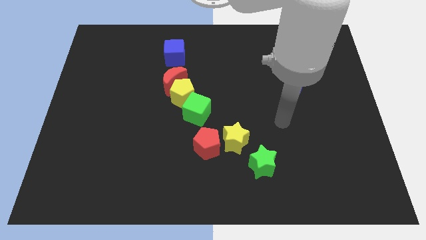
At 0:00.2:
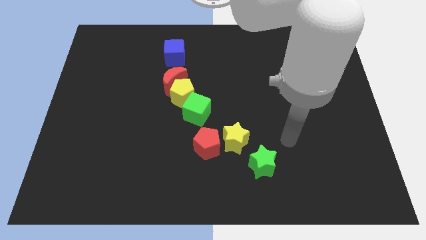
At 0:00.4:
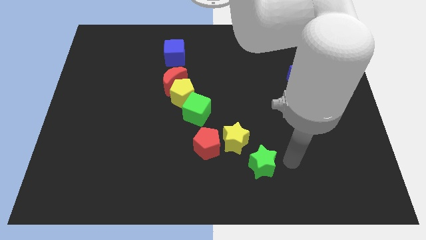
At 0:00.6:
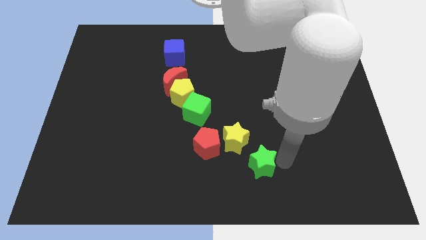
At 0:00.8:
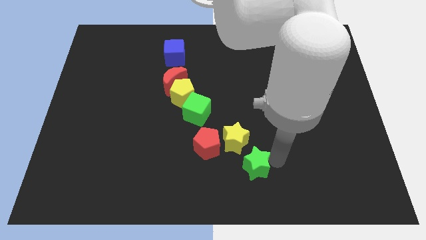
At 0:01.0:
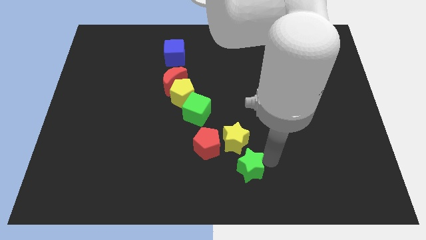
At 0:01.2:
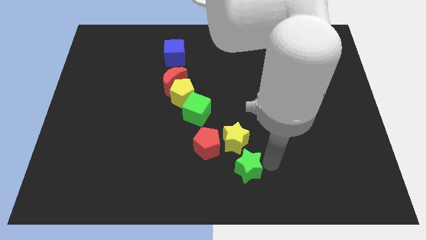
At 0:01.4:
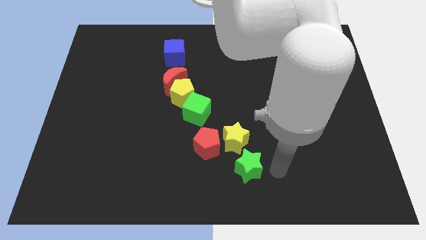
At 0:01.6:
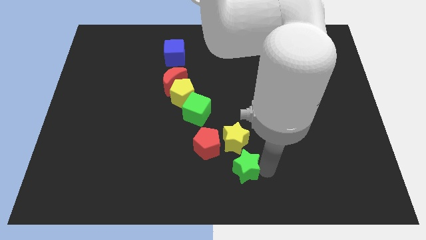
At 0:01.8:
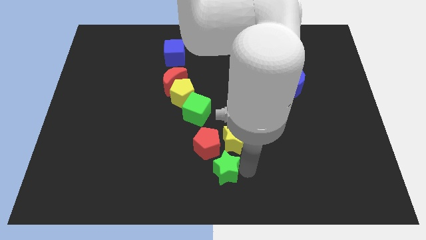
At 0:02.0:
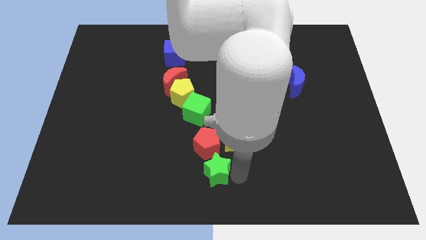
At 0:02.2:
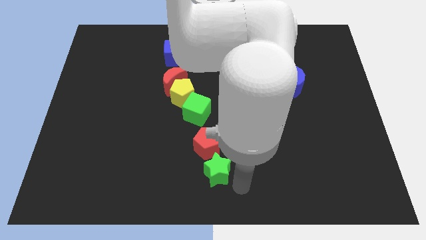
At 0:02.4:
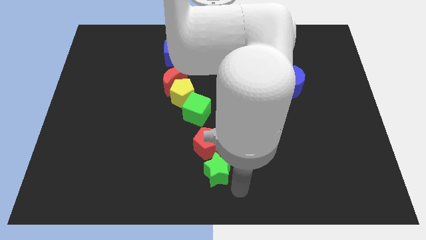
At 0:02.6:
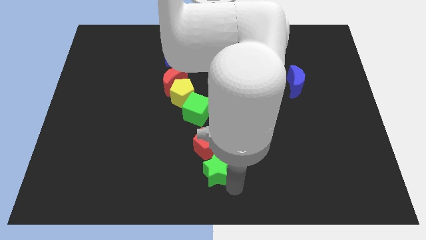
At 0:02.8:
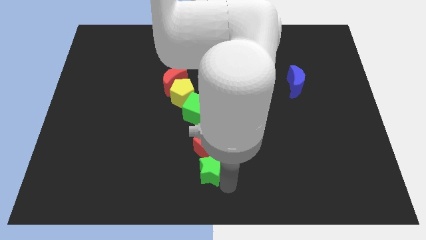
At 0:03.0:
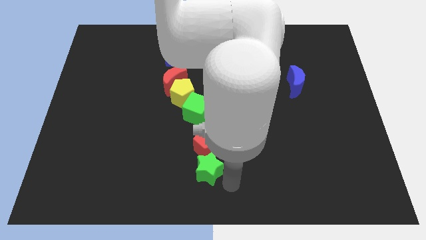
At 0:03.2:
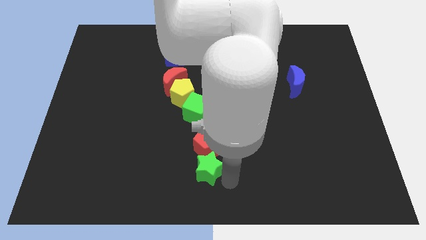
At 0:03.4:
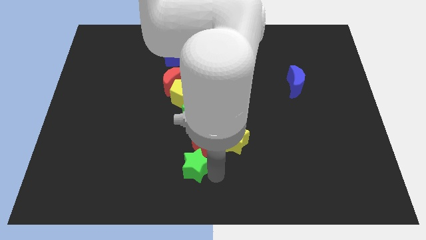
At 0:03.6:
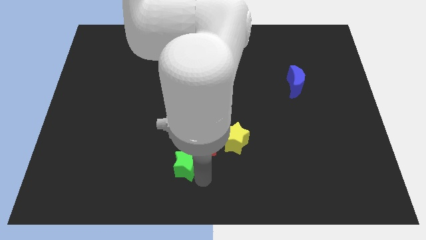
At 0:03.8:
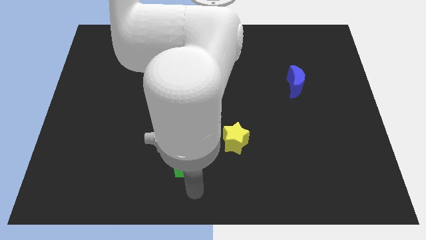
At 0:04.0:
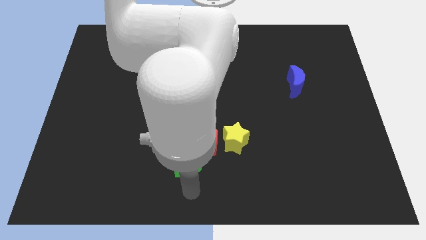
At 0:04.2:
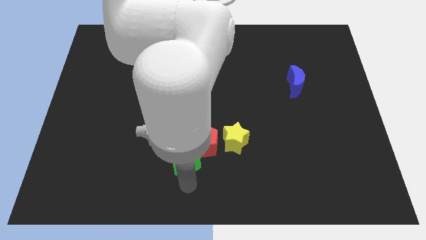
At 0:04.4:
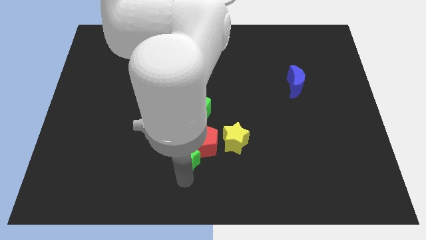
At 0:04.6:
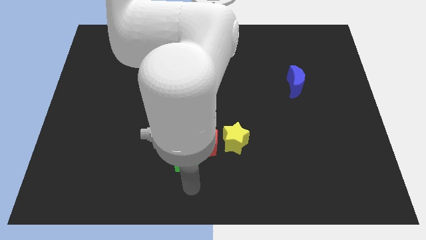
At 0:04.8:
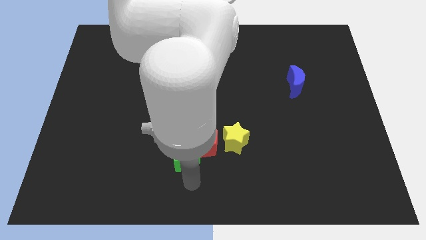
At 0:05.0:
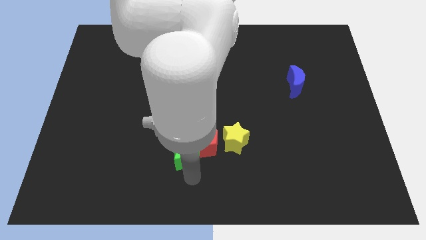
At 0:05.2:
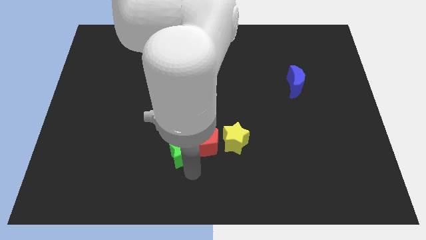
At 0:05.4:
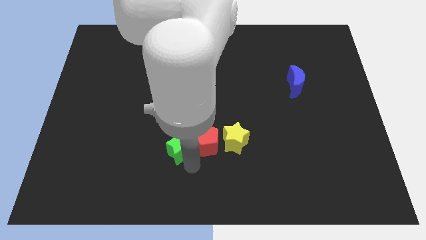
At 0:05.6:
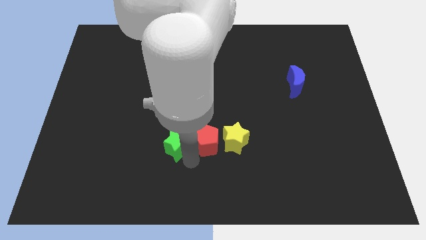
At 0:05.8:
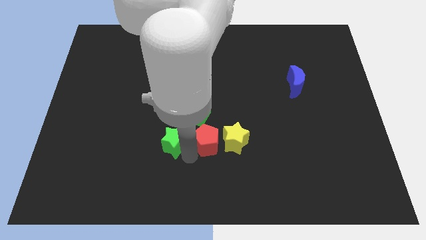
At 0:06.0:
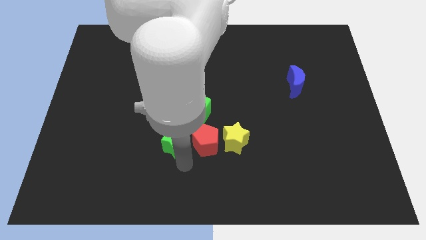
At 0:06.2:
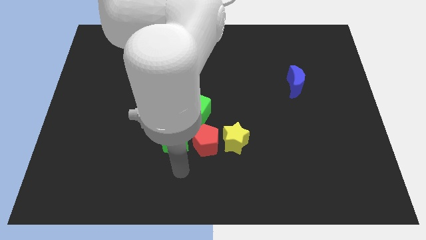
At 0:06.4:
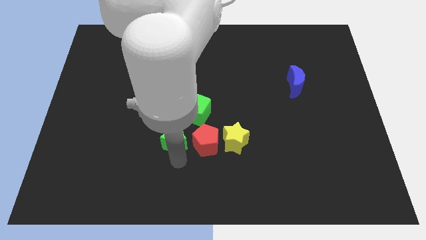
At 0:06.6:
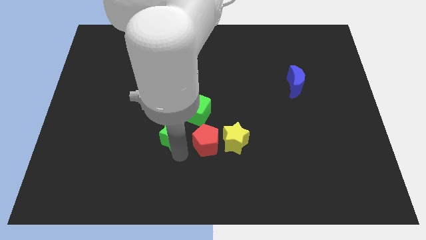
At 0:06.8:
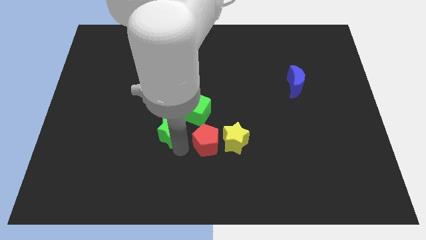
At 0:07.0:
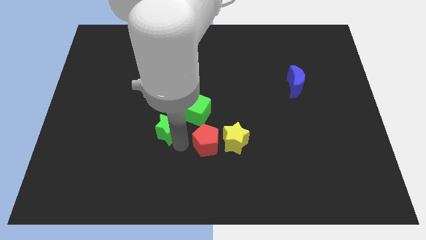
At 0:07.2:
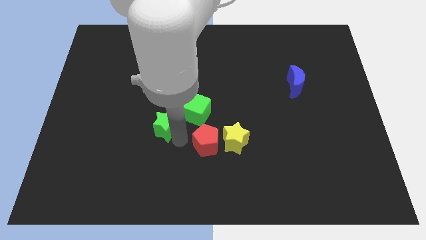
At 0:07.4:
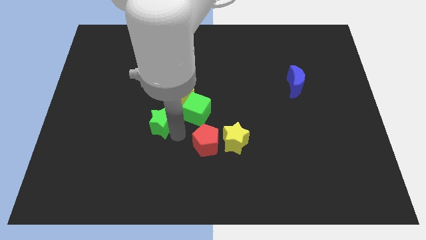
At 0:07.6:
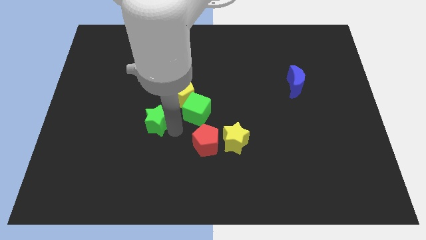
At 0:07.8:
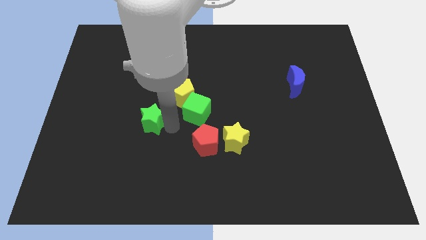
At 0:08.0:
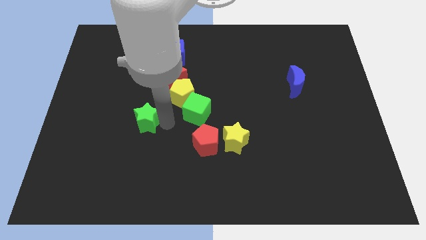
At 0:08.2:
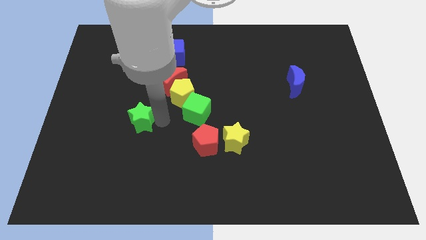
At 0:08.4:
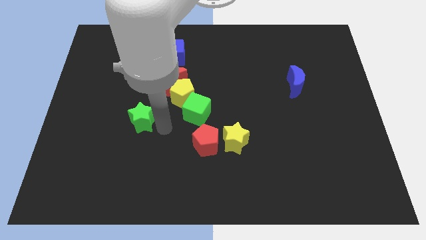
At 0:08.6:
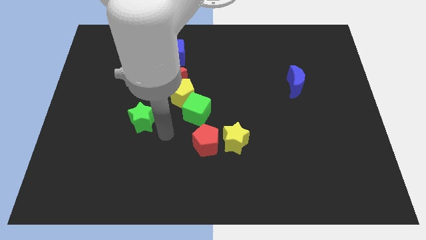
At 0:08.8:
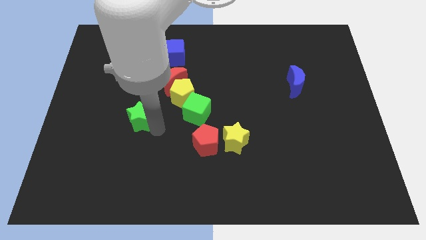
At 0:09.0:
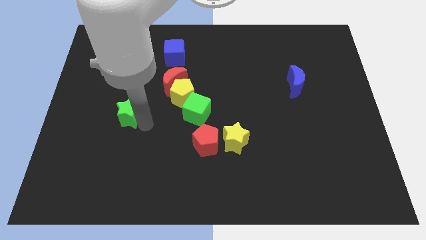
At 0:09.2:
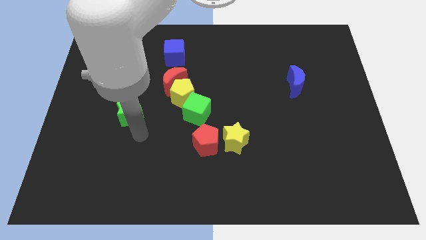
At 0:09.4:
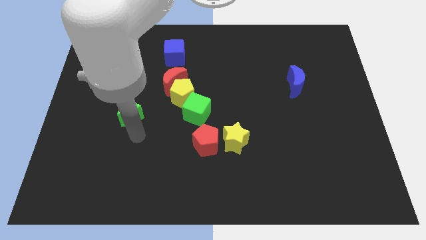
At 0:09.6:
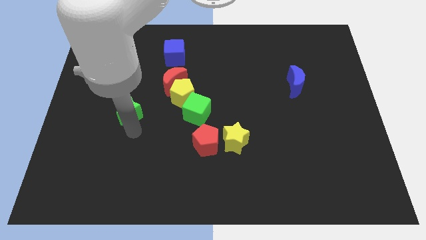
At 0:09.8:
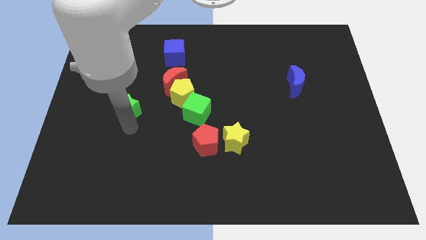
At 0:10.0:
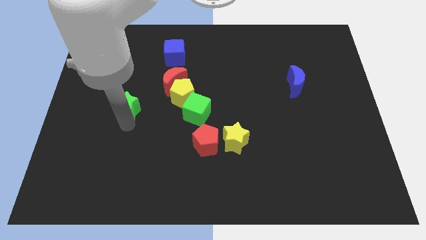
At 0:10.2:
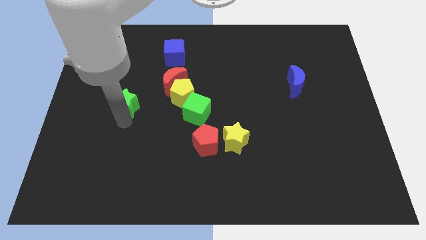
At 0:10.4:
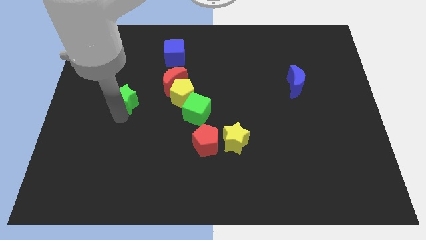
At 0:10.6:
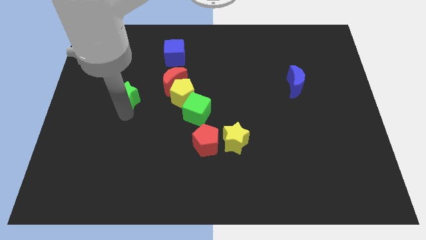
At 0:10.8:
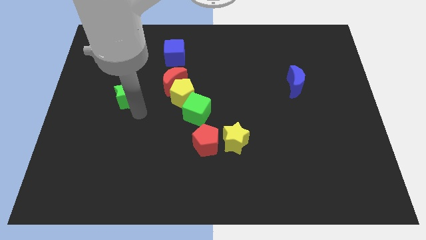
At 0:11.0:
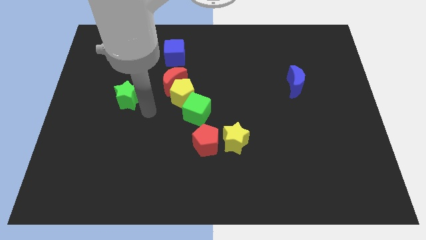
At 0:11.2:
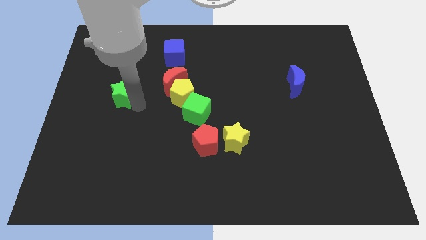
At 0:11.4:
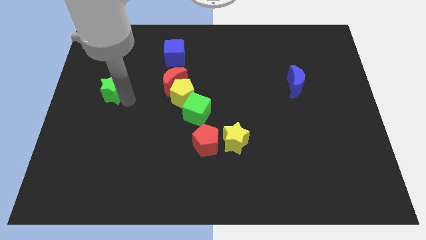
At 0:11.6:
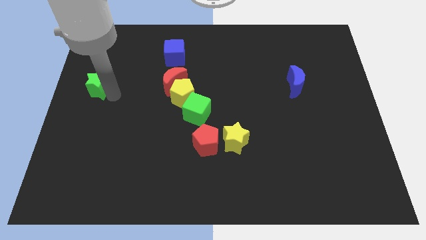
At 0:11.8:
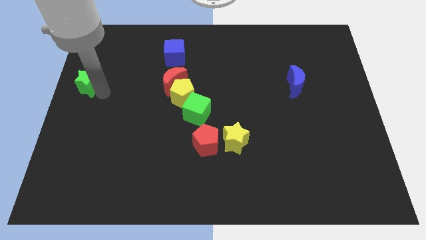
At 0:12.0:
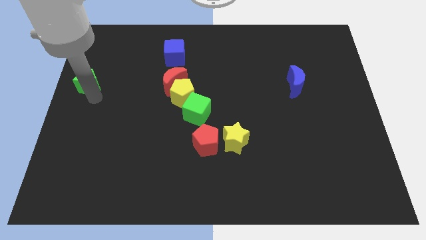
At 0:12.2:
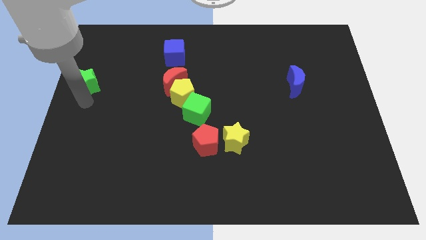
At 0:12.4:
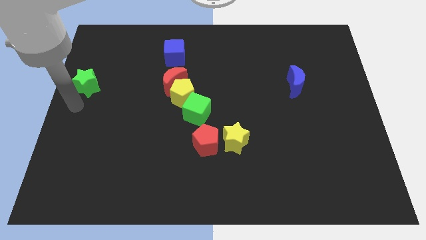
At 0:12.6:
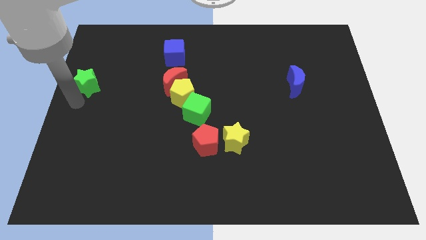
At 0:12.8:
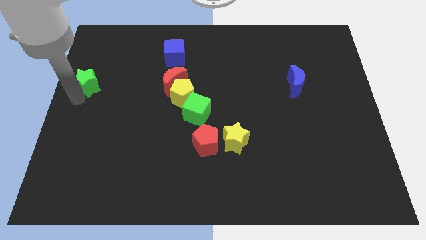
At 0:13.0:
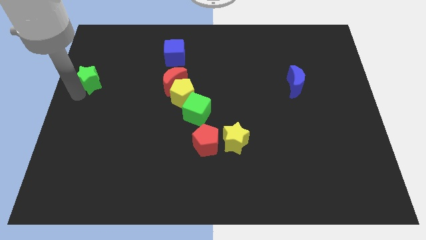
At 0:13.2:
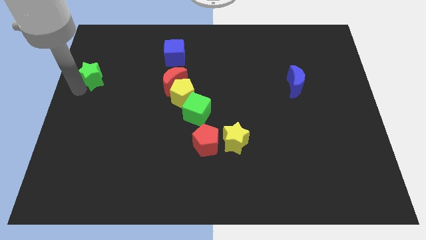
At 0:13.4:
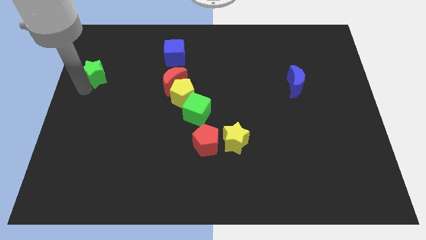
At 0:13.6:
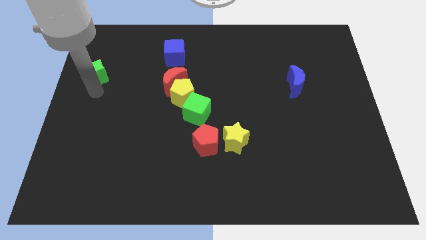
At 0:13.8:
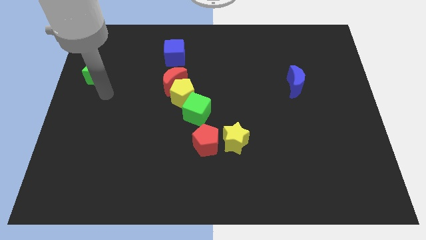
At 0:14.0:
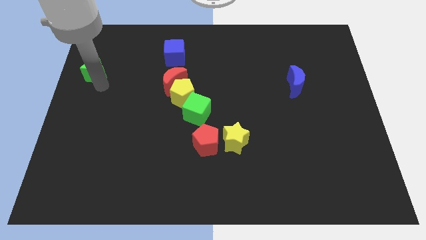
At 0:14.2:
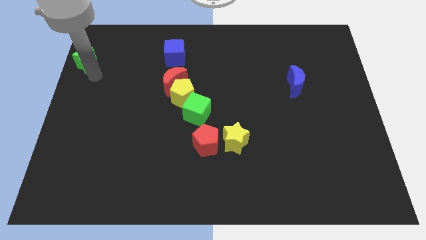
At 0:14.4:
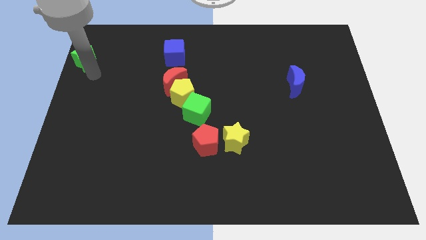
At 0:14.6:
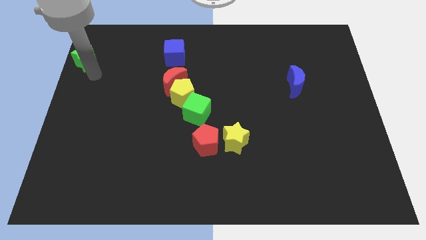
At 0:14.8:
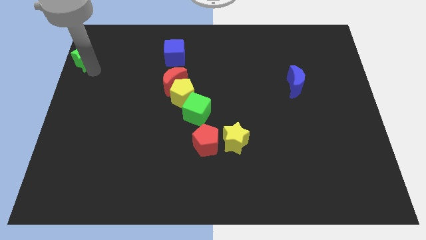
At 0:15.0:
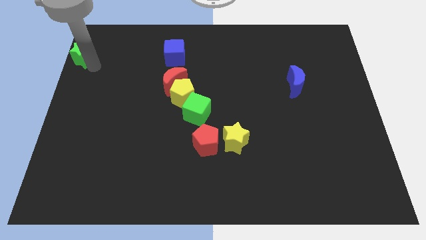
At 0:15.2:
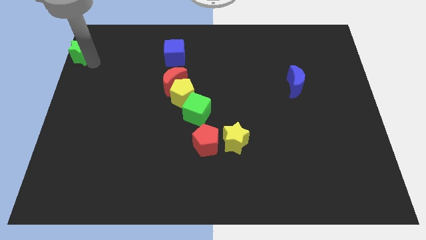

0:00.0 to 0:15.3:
put the green star to the top left of the board

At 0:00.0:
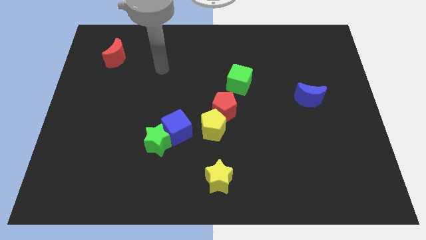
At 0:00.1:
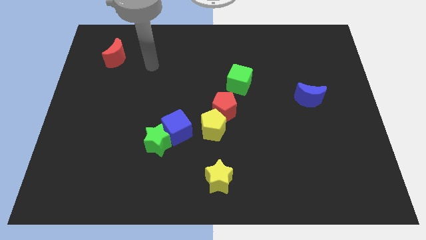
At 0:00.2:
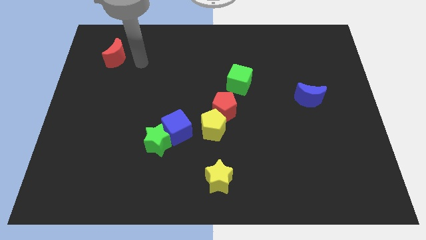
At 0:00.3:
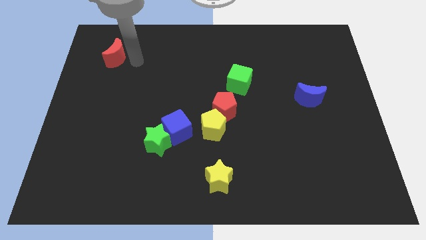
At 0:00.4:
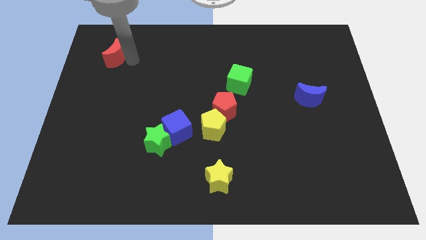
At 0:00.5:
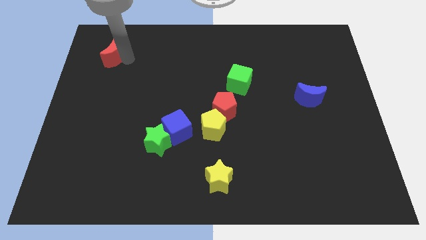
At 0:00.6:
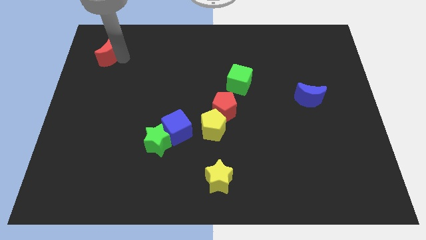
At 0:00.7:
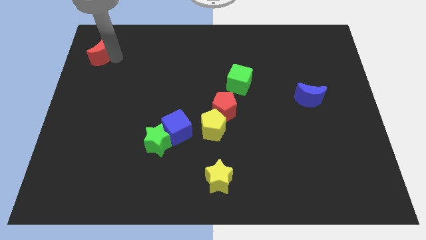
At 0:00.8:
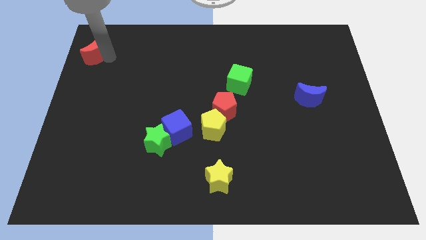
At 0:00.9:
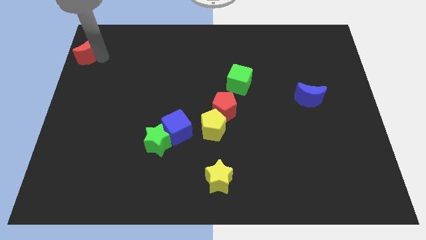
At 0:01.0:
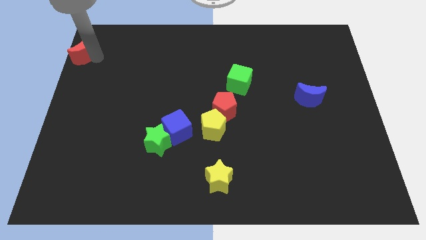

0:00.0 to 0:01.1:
push the red moon to the upper left corner
